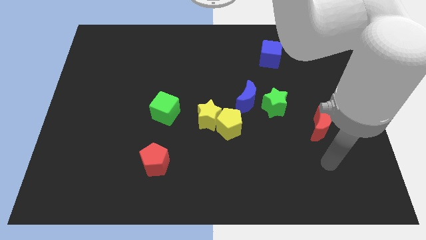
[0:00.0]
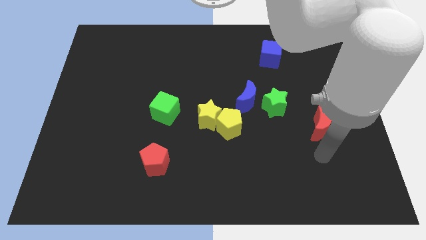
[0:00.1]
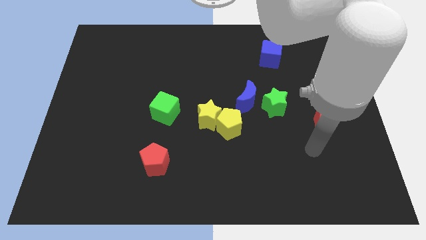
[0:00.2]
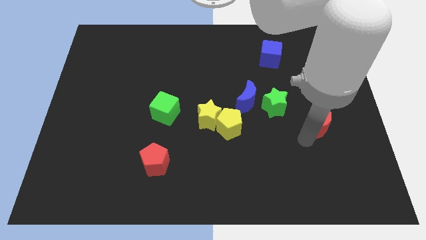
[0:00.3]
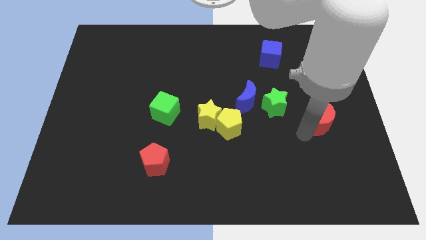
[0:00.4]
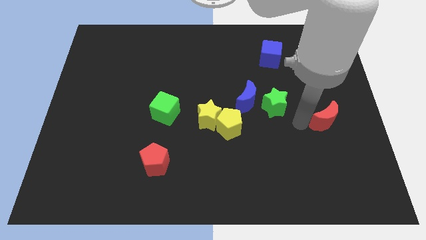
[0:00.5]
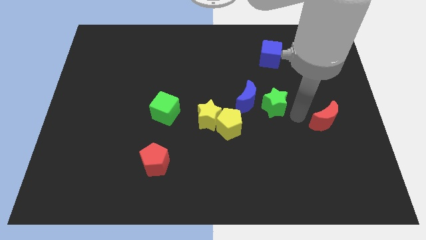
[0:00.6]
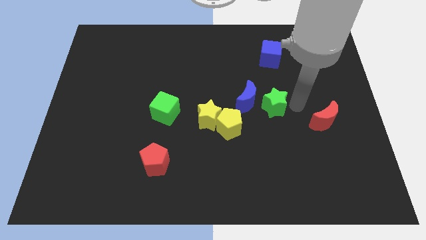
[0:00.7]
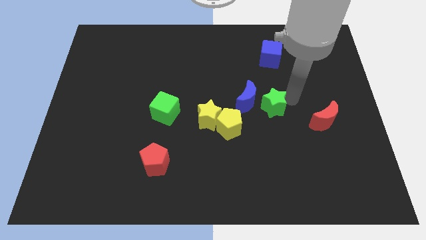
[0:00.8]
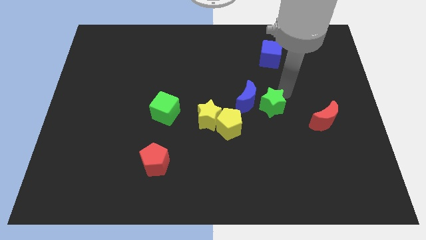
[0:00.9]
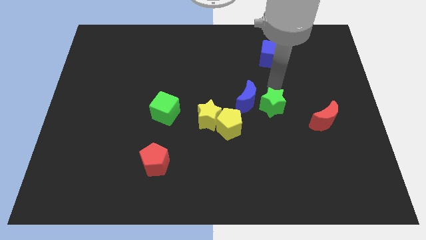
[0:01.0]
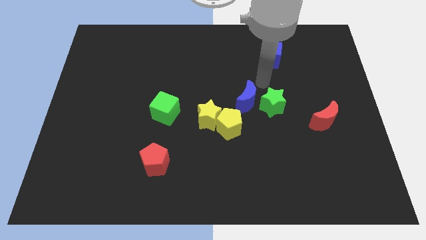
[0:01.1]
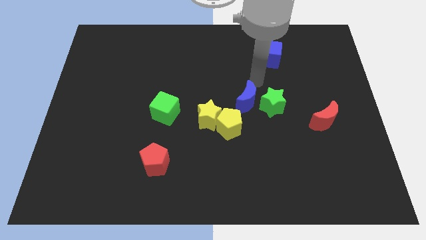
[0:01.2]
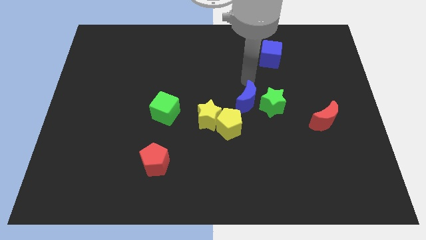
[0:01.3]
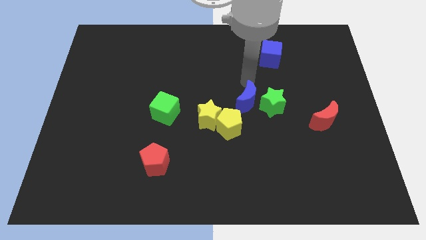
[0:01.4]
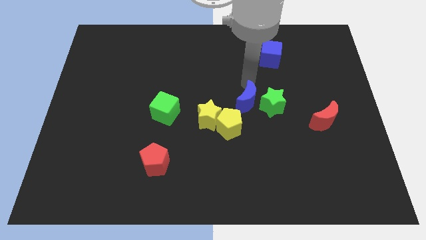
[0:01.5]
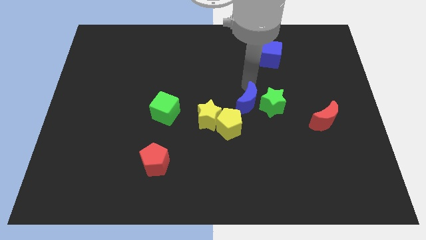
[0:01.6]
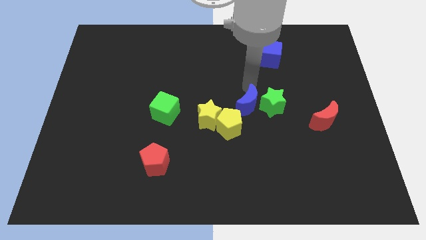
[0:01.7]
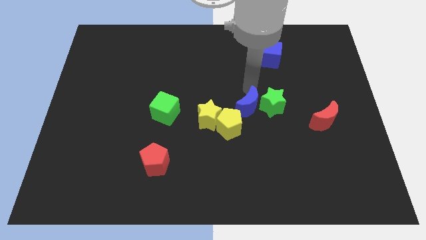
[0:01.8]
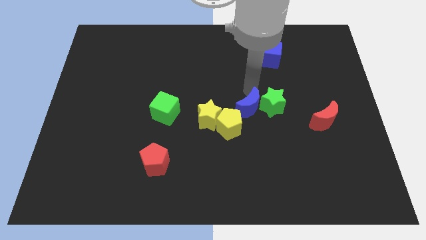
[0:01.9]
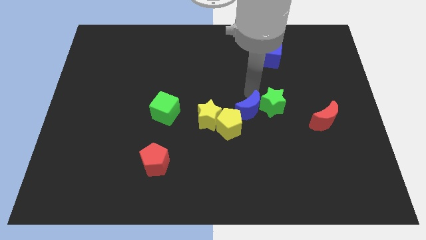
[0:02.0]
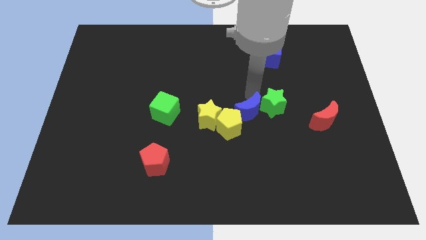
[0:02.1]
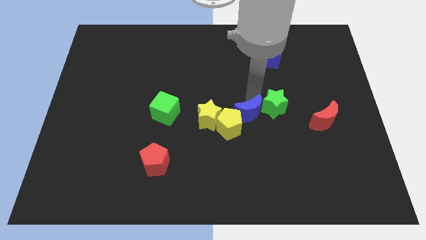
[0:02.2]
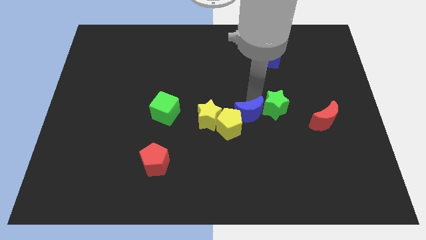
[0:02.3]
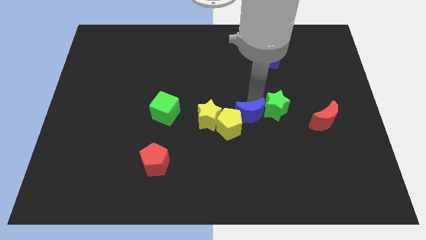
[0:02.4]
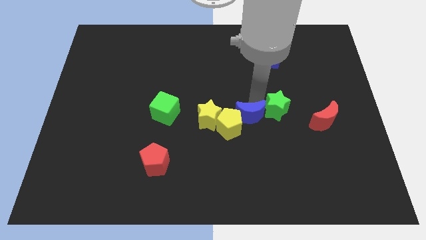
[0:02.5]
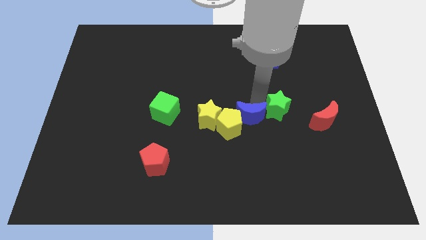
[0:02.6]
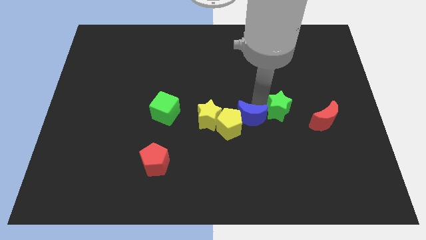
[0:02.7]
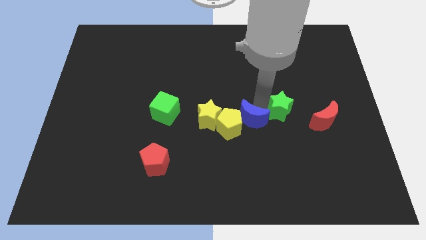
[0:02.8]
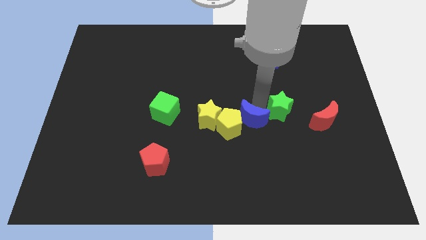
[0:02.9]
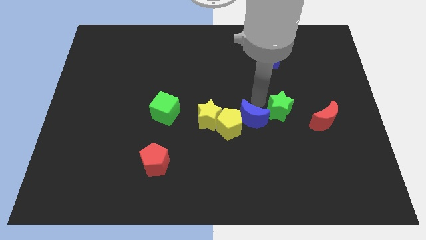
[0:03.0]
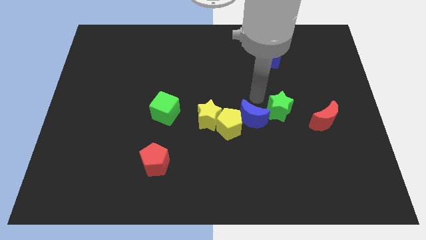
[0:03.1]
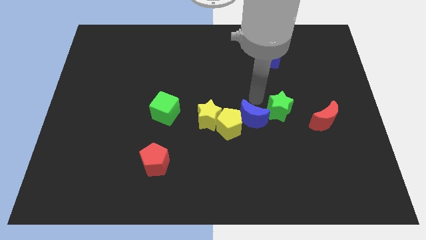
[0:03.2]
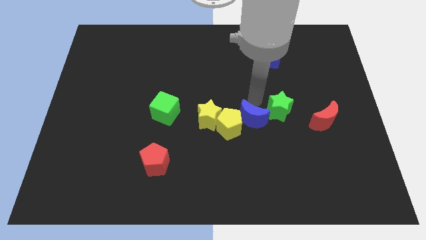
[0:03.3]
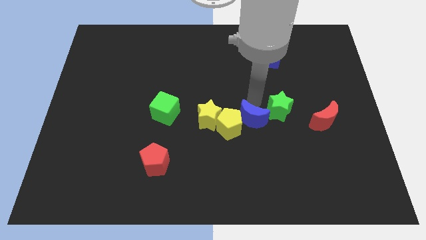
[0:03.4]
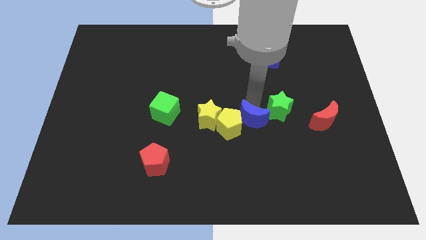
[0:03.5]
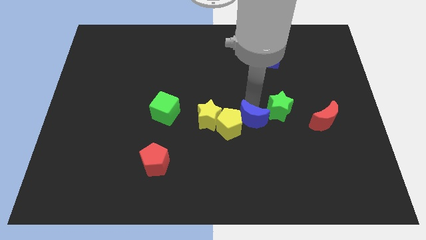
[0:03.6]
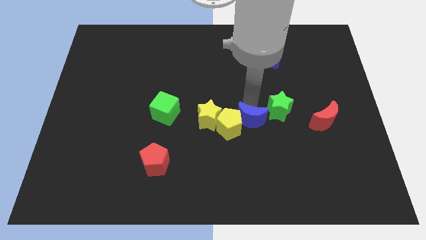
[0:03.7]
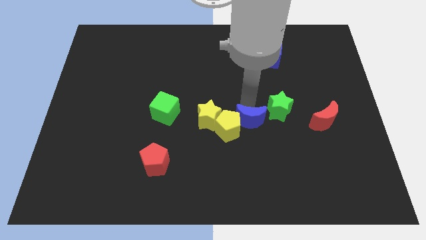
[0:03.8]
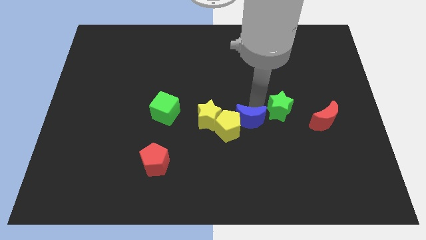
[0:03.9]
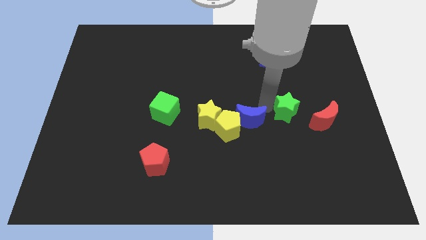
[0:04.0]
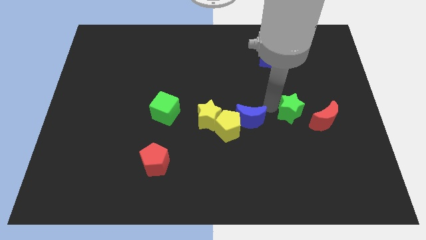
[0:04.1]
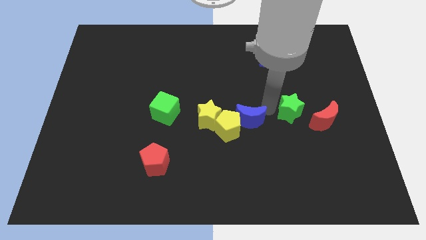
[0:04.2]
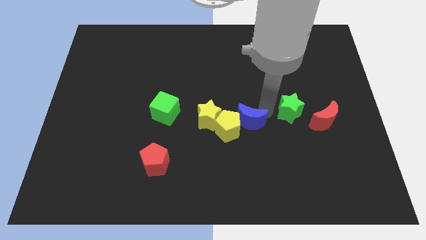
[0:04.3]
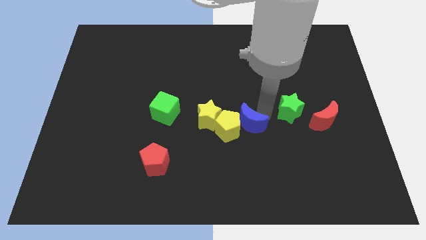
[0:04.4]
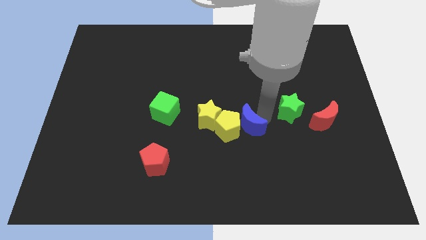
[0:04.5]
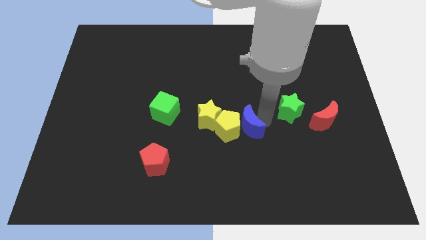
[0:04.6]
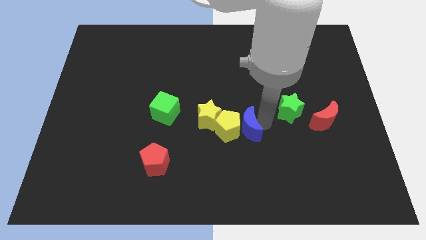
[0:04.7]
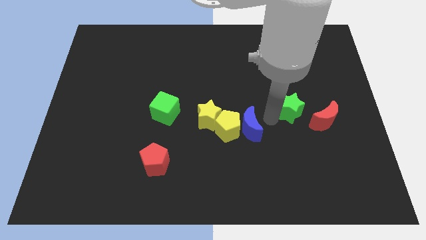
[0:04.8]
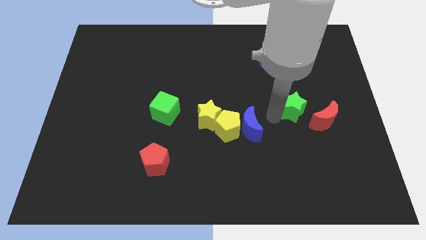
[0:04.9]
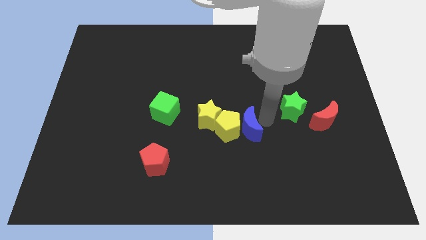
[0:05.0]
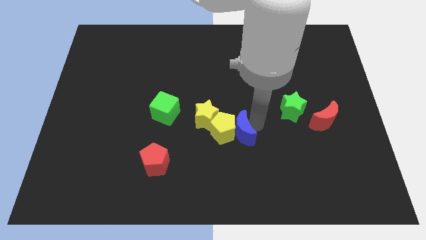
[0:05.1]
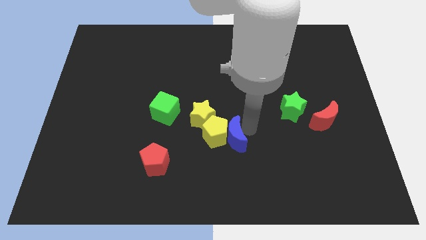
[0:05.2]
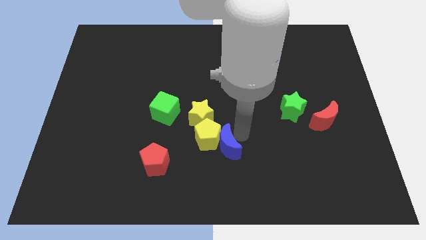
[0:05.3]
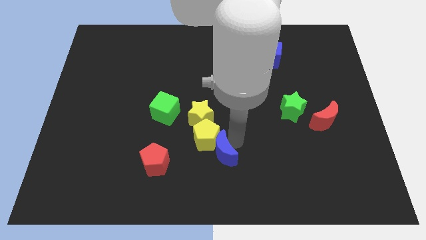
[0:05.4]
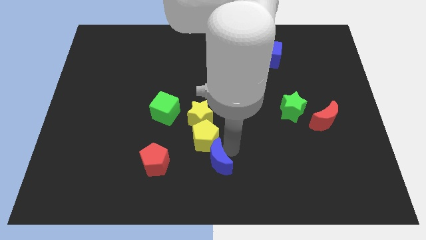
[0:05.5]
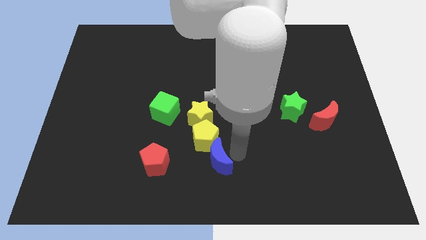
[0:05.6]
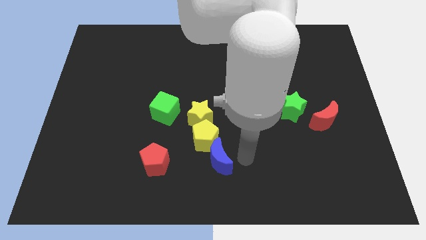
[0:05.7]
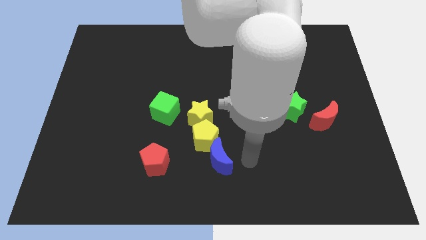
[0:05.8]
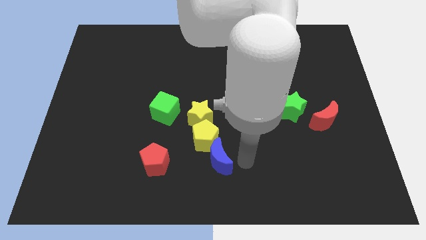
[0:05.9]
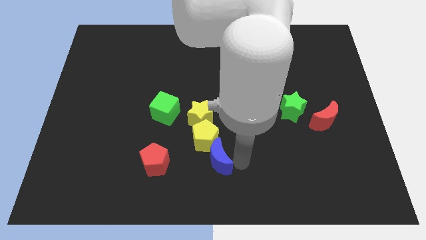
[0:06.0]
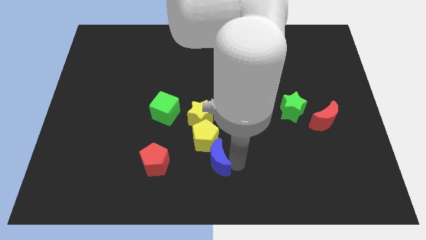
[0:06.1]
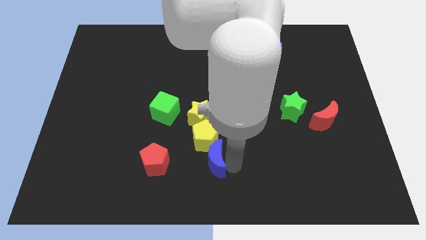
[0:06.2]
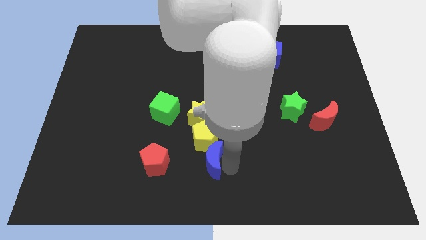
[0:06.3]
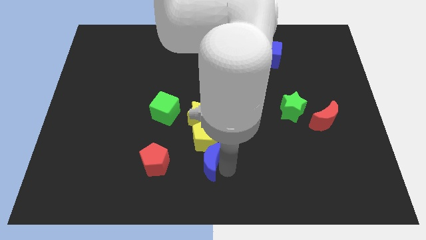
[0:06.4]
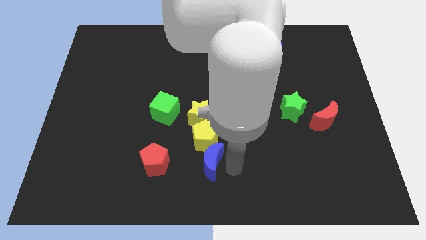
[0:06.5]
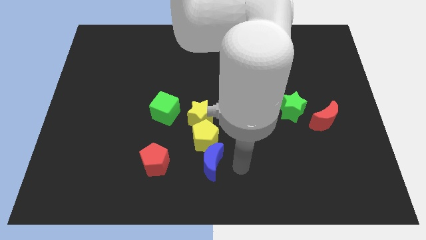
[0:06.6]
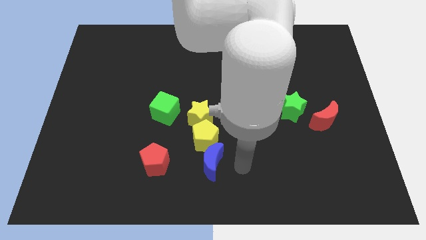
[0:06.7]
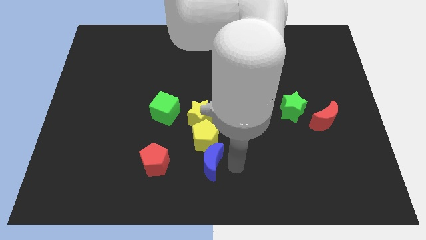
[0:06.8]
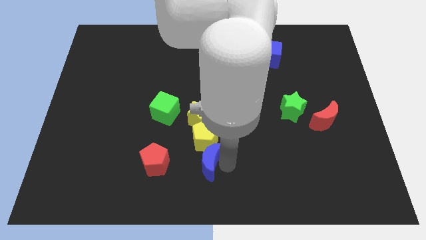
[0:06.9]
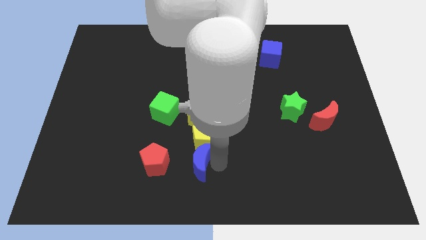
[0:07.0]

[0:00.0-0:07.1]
push the blue moon to the bottom left side of the yellow pentagon
